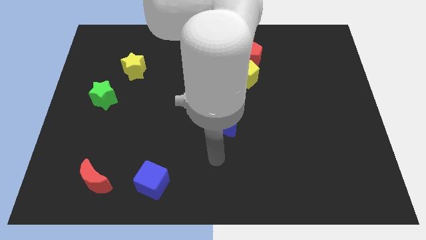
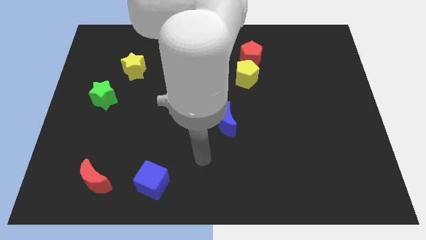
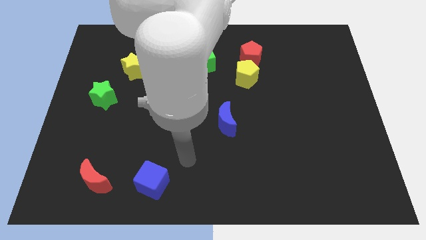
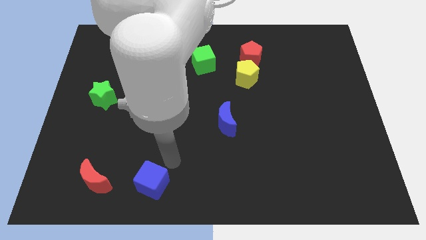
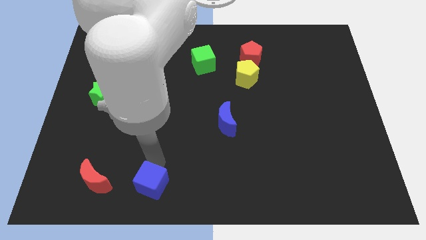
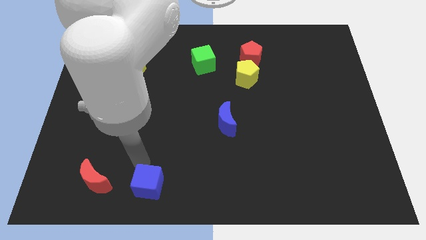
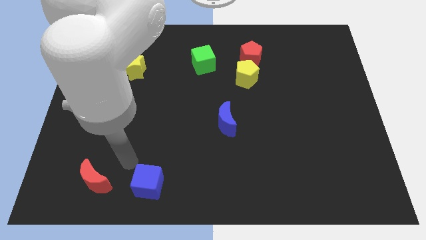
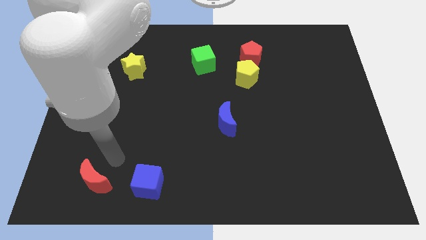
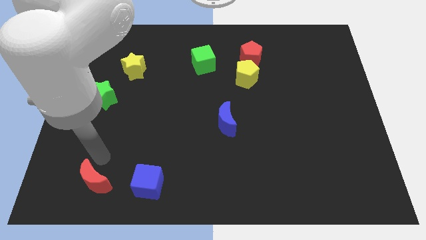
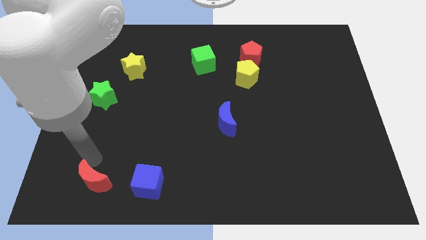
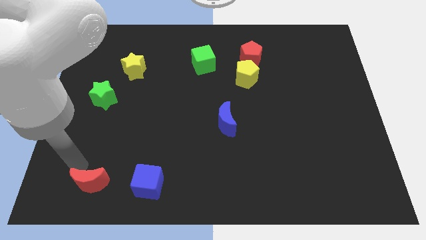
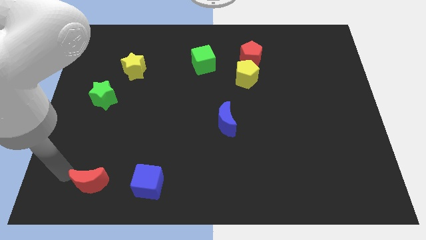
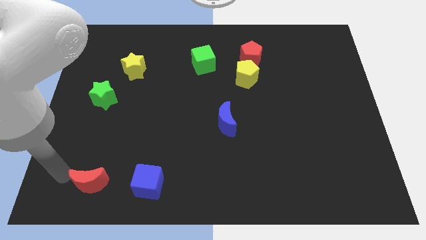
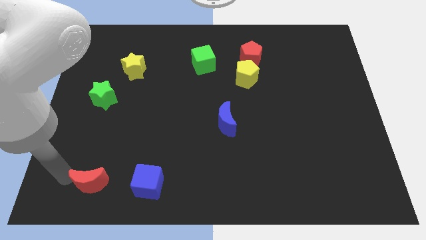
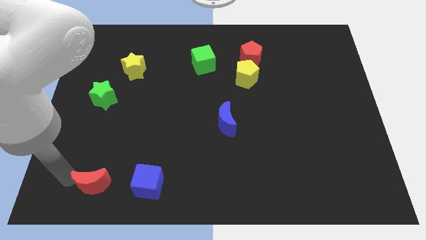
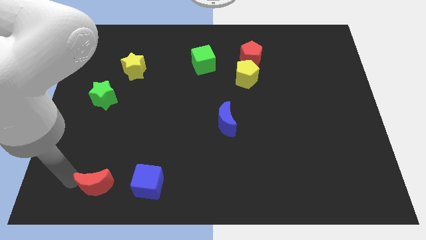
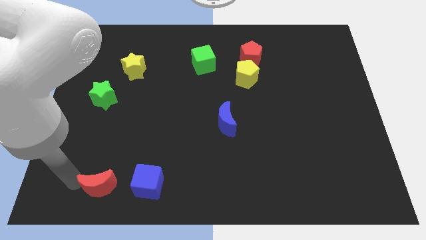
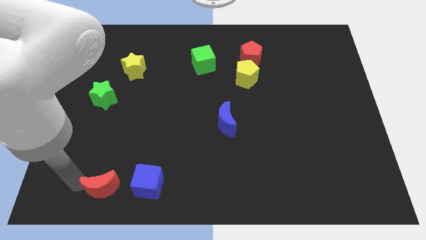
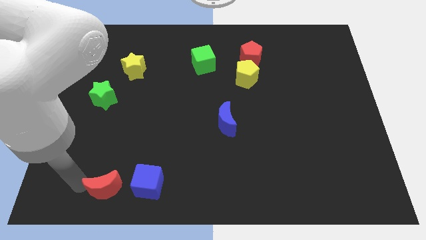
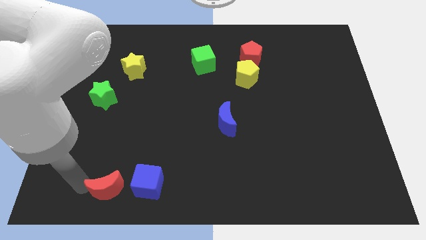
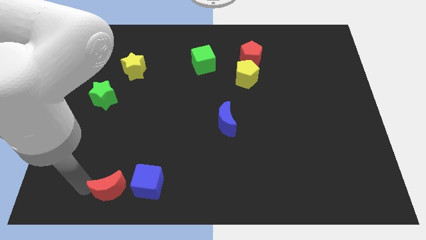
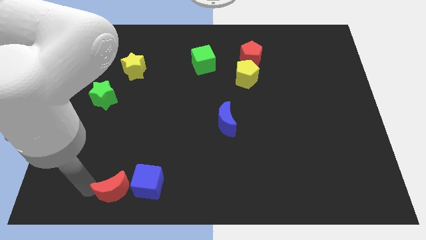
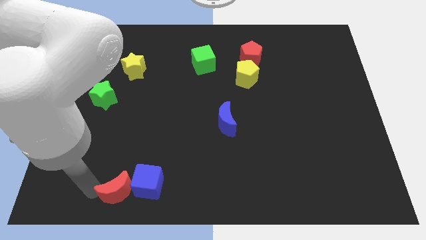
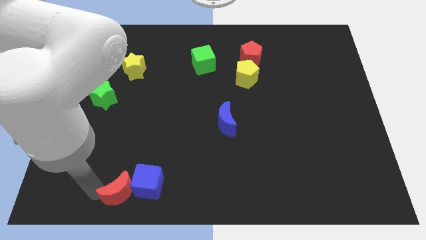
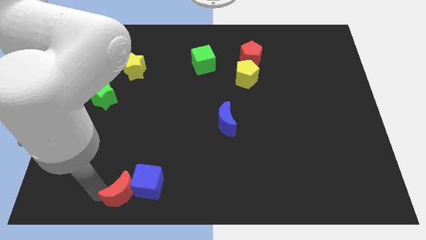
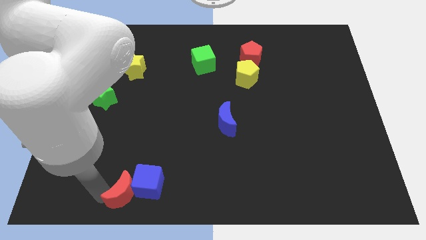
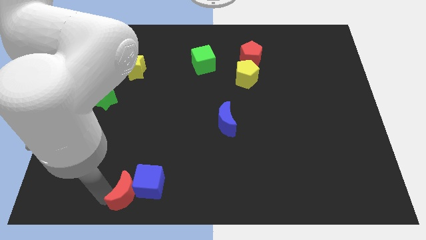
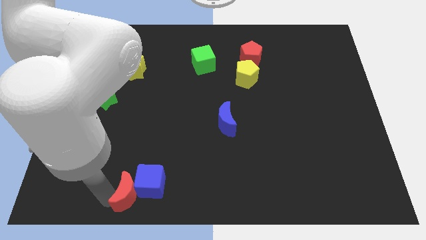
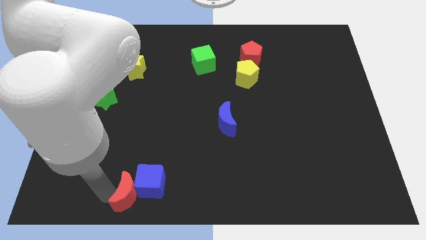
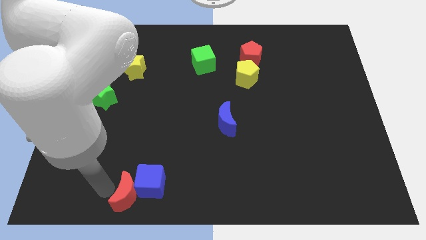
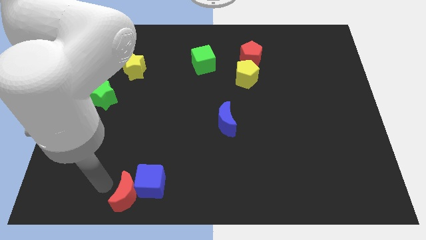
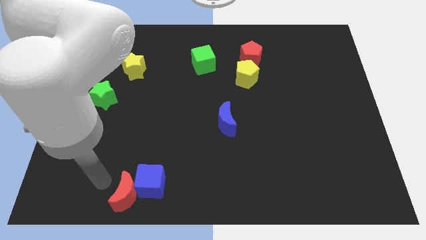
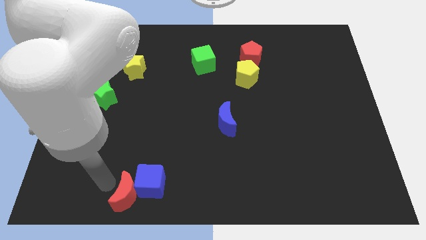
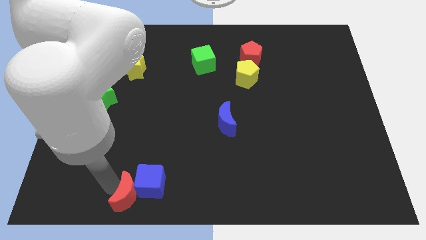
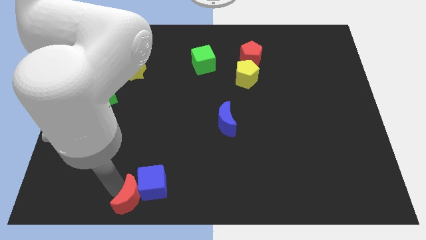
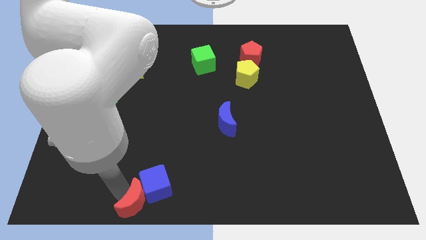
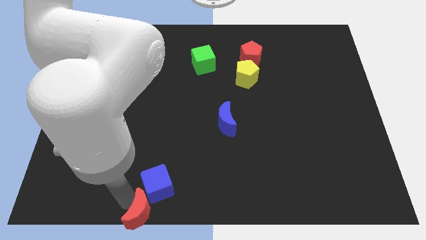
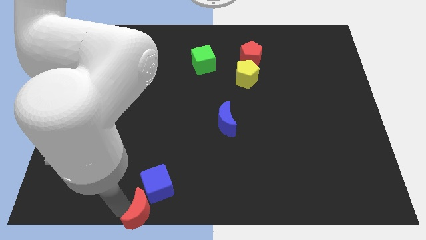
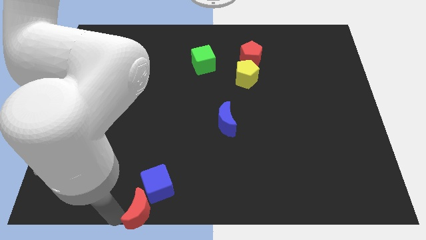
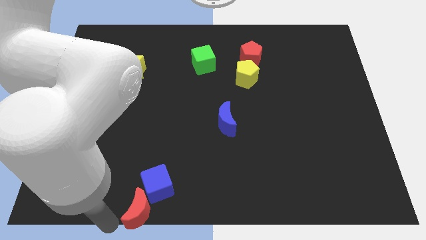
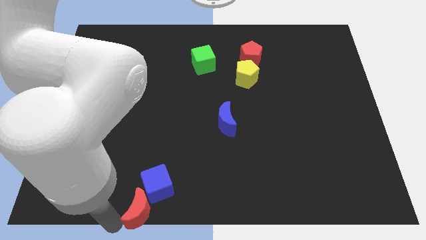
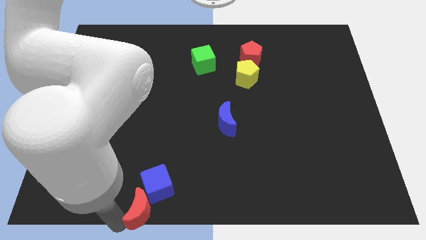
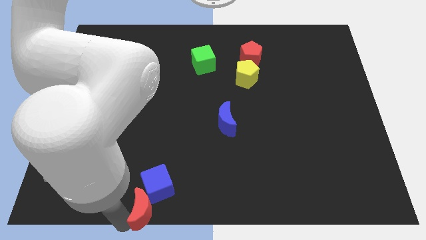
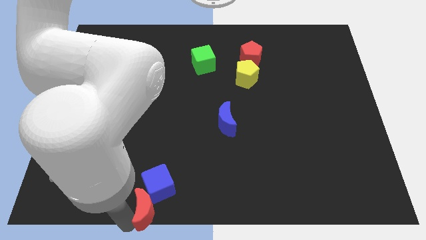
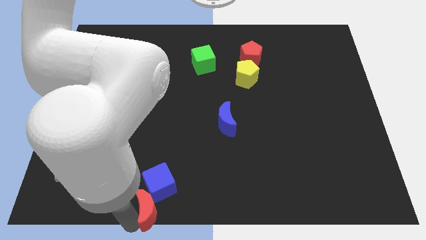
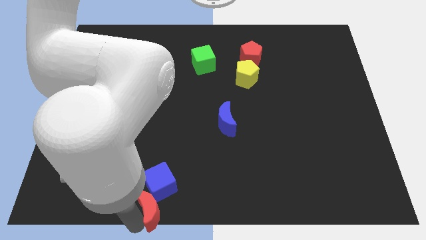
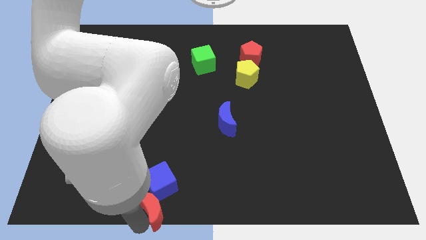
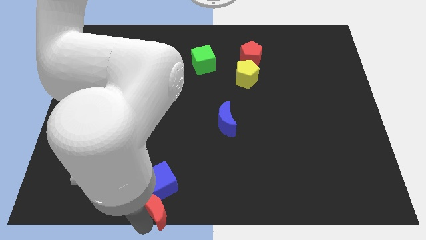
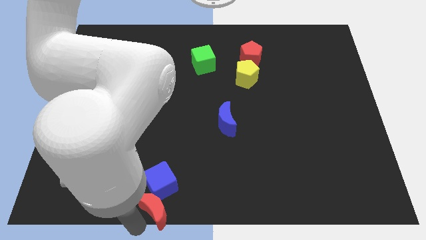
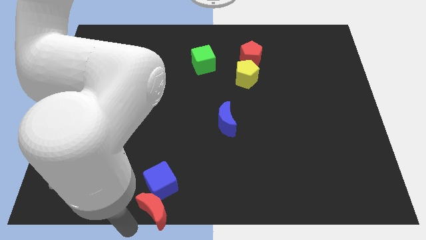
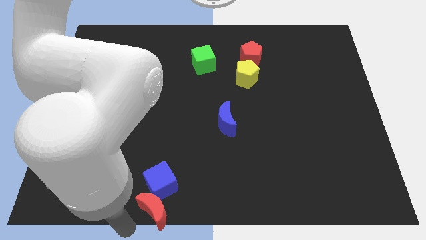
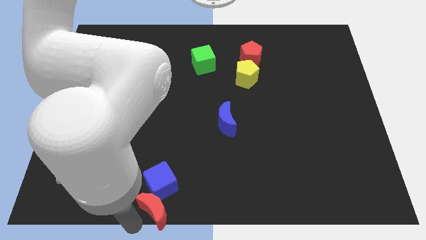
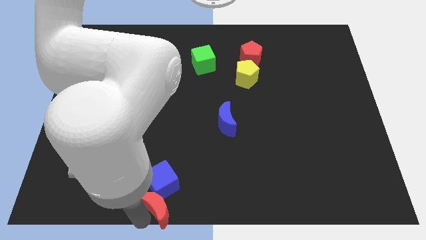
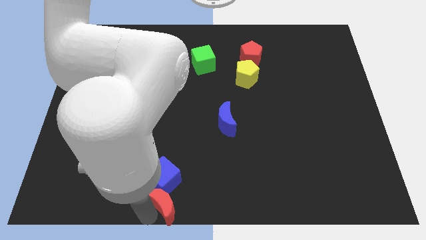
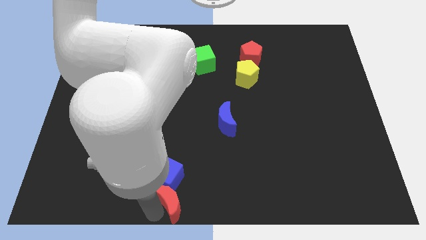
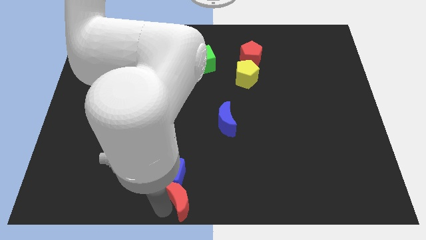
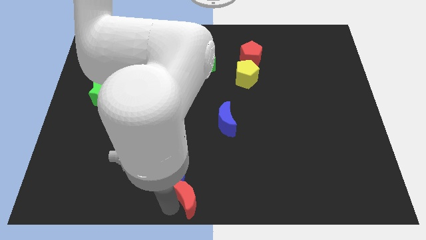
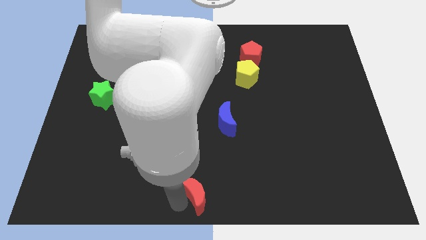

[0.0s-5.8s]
push the red moon right

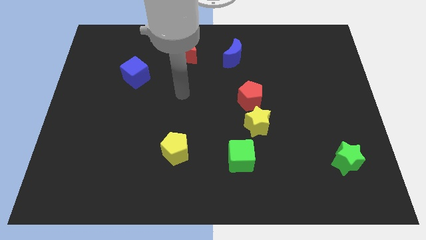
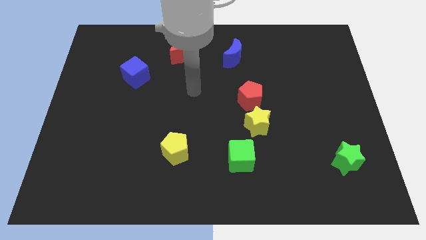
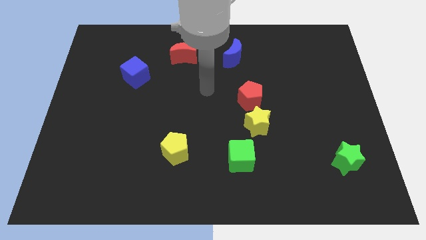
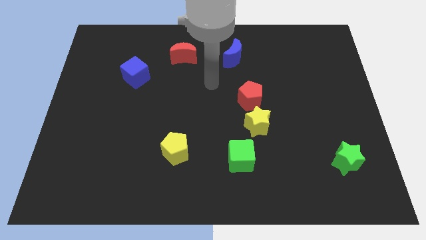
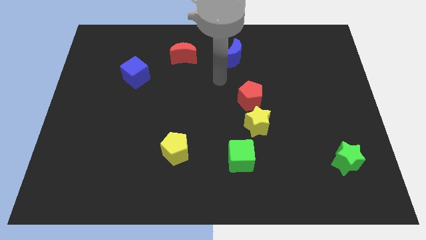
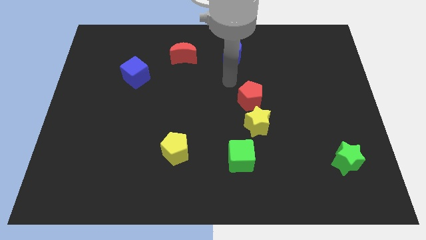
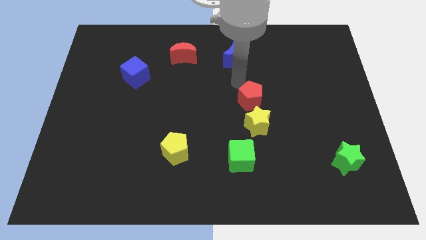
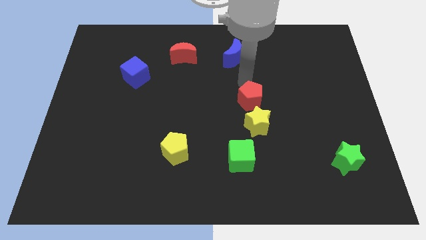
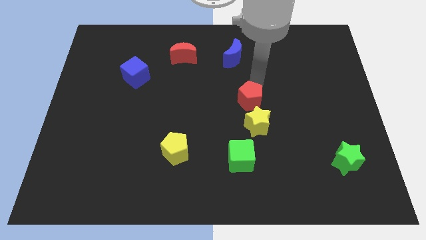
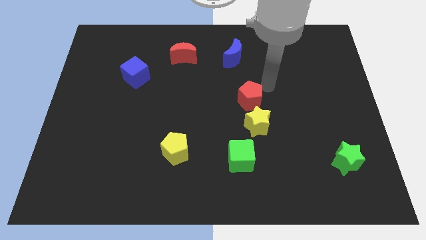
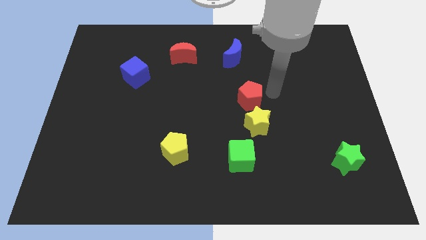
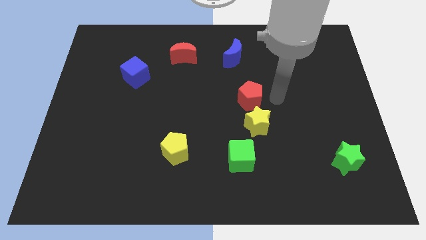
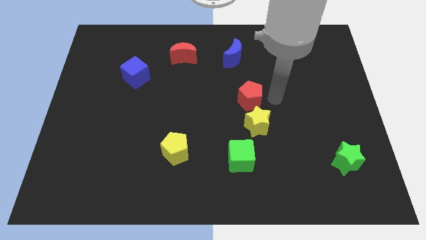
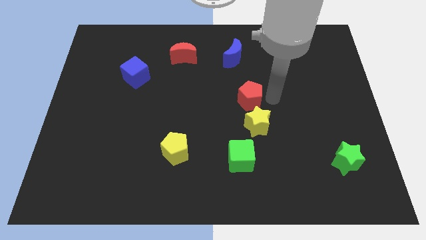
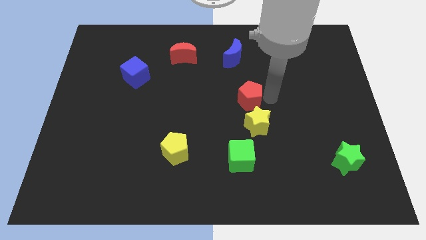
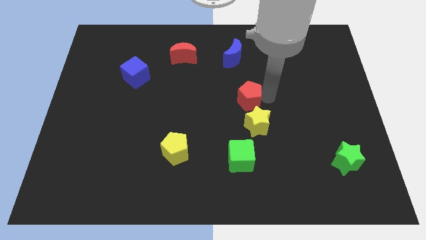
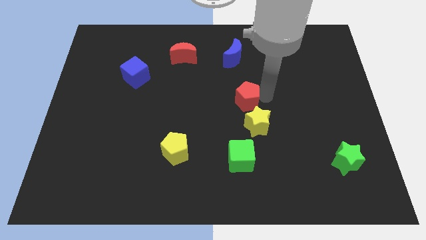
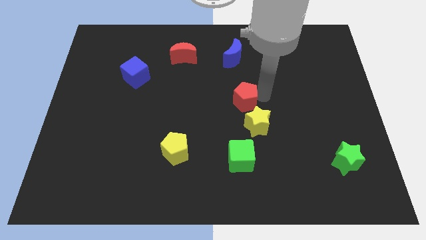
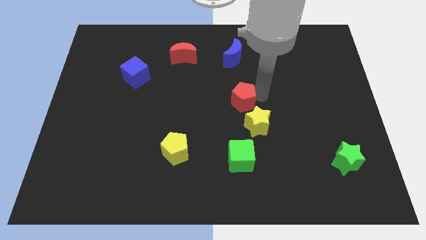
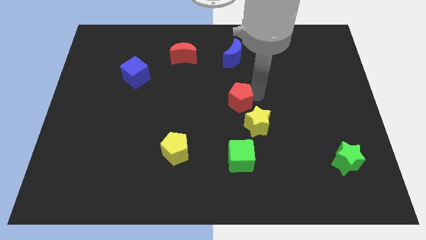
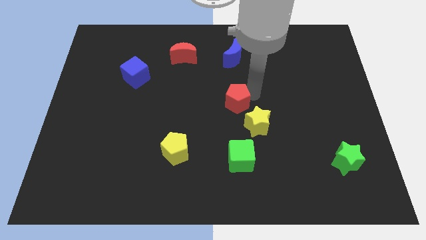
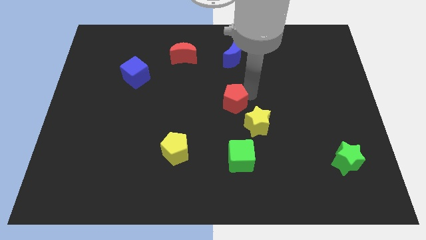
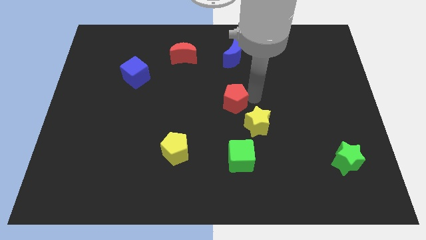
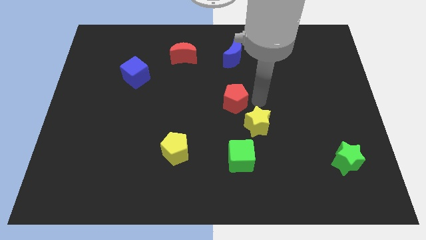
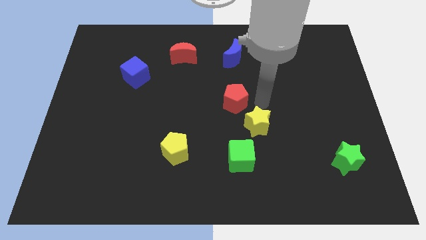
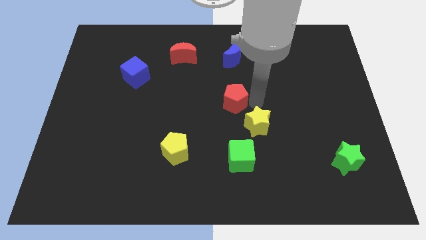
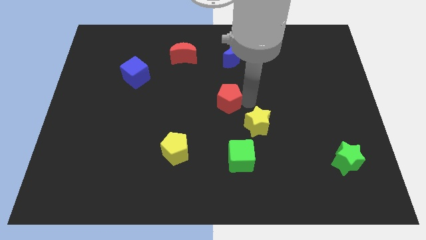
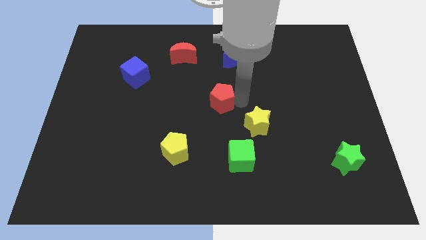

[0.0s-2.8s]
move the red pentagon somewhat to the left
